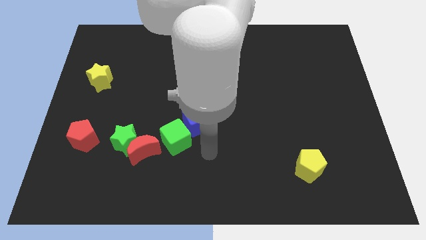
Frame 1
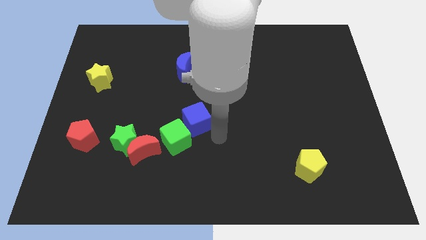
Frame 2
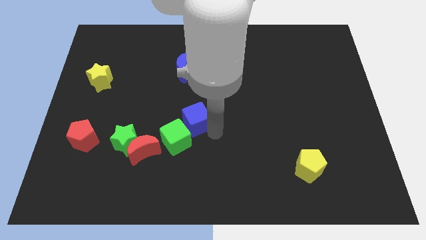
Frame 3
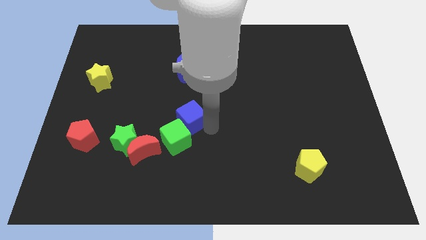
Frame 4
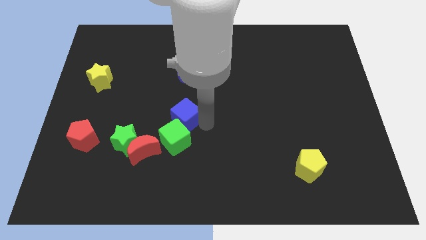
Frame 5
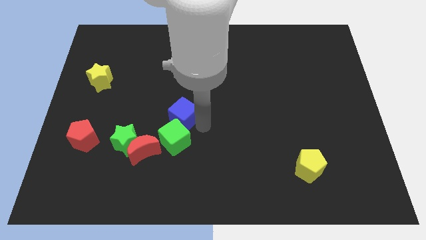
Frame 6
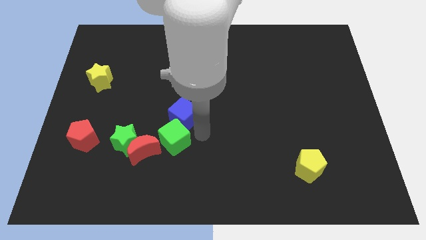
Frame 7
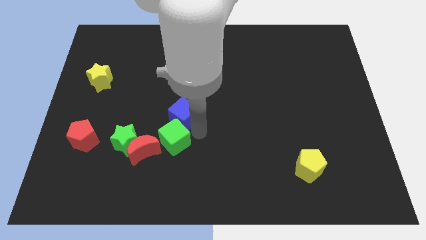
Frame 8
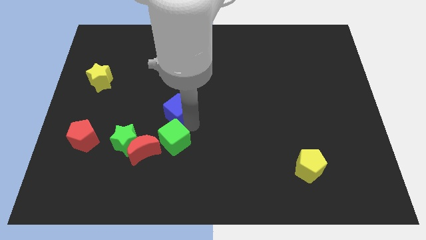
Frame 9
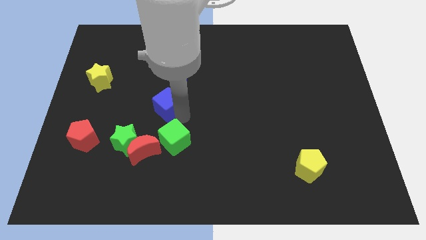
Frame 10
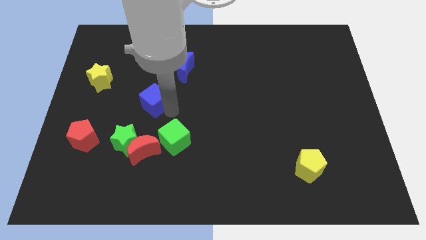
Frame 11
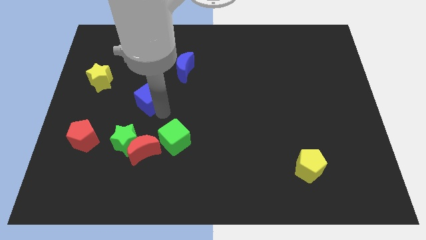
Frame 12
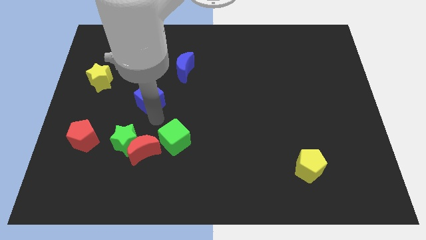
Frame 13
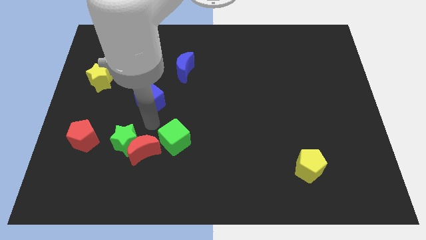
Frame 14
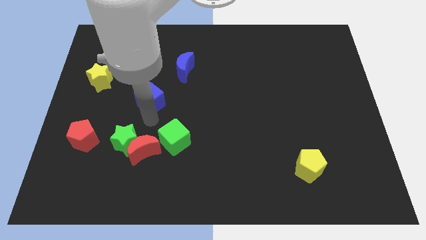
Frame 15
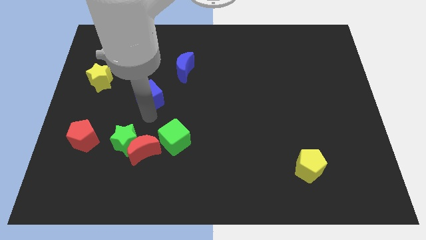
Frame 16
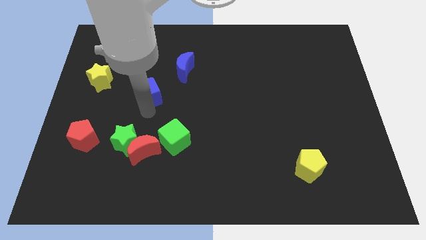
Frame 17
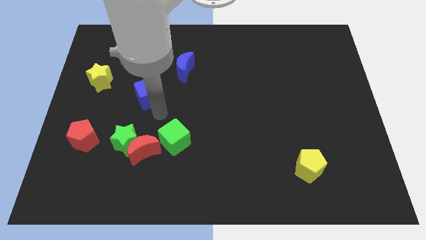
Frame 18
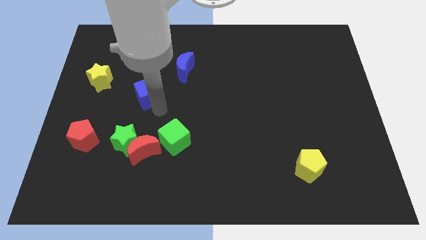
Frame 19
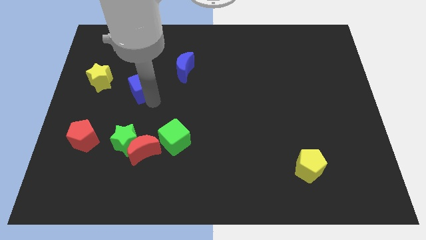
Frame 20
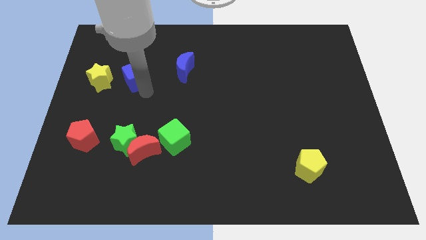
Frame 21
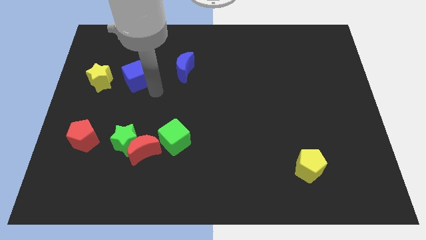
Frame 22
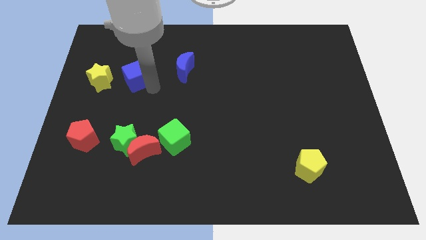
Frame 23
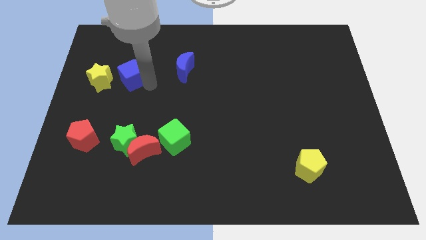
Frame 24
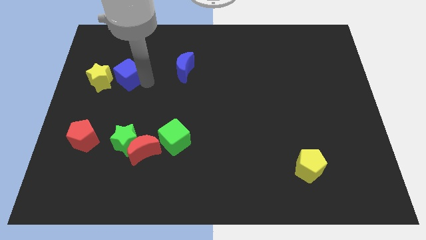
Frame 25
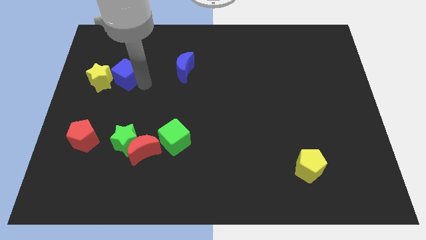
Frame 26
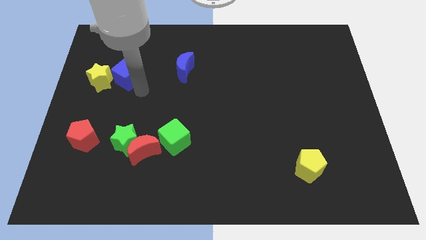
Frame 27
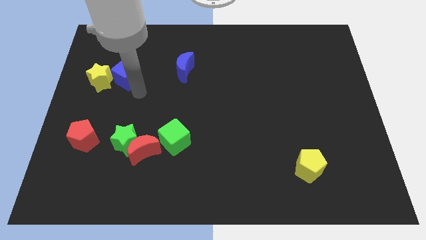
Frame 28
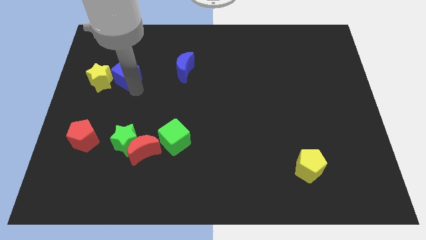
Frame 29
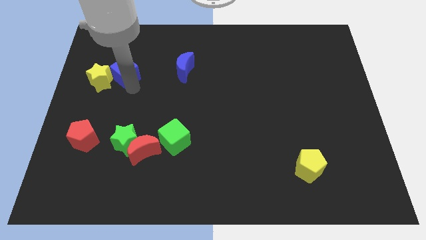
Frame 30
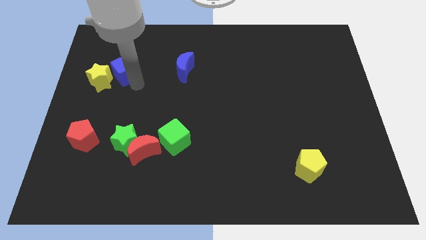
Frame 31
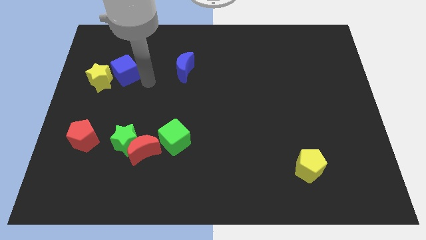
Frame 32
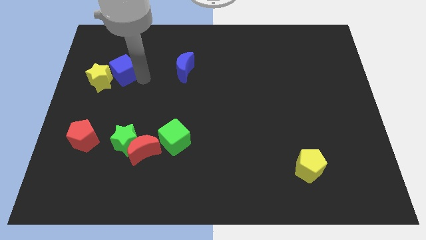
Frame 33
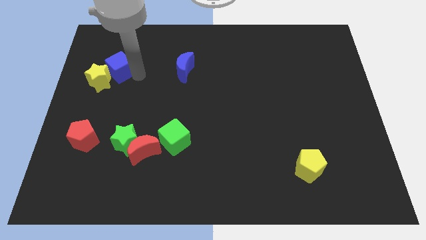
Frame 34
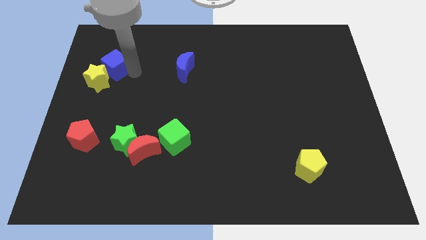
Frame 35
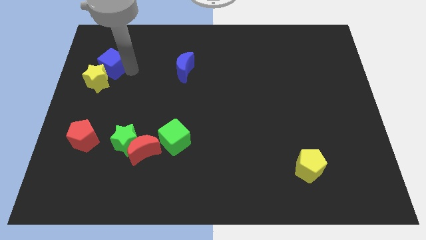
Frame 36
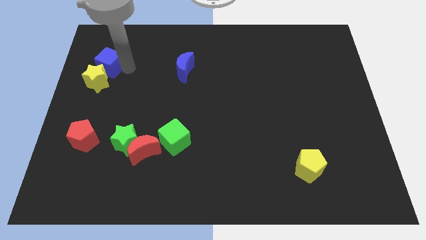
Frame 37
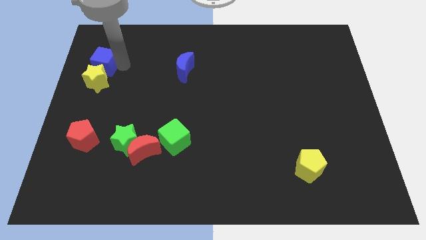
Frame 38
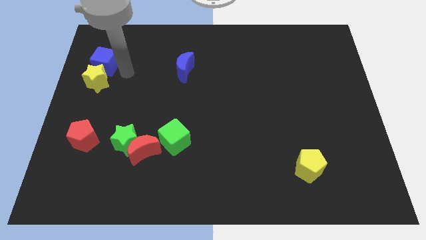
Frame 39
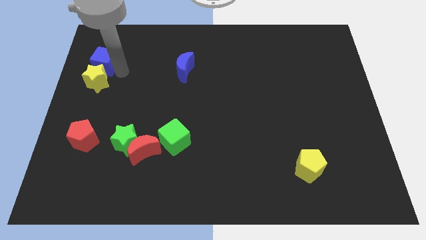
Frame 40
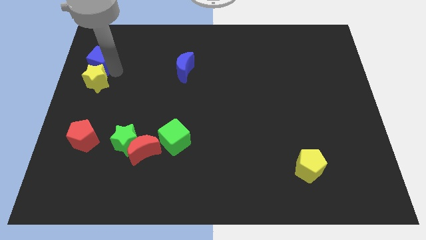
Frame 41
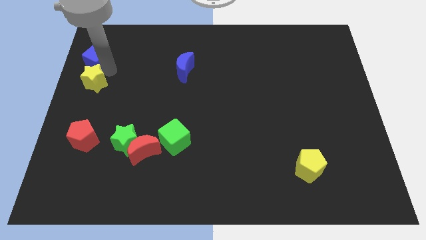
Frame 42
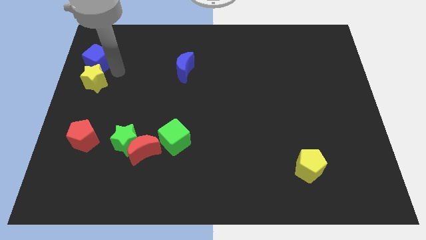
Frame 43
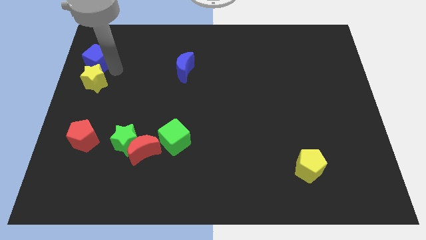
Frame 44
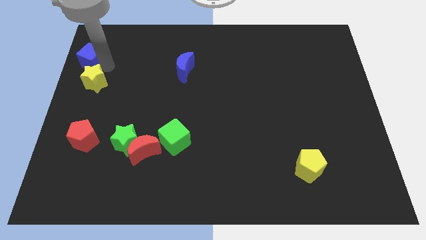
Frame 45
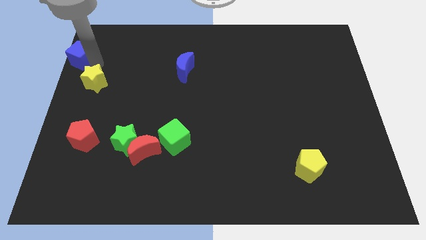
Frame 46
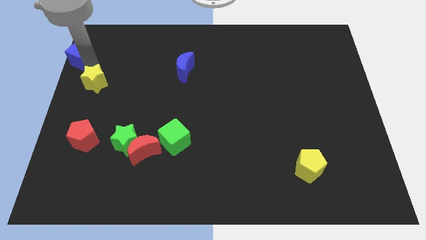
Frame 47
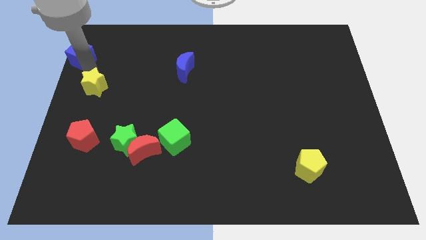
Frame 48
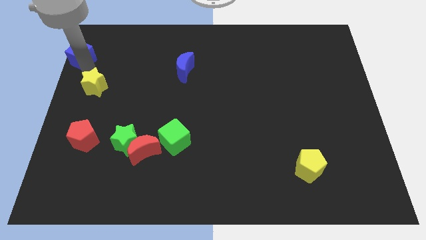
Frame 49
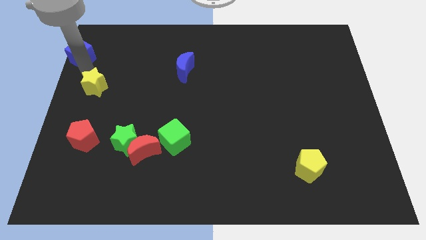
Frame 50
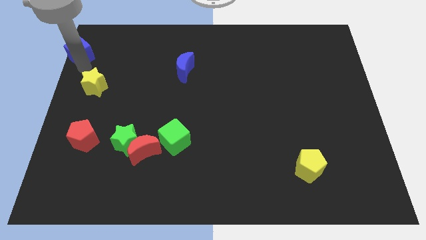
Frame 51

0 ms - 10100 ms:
slide the blue cube to the top left

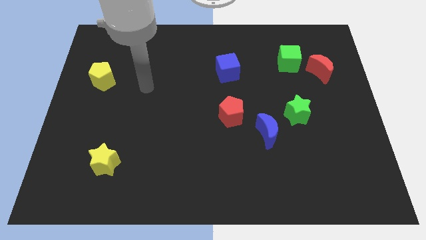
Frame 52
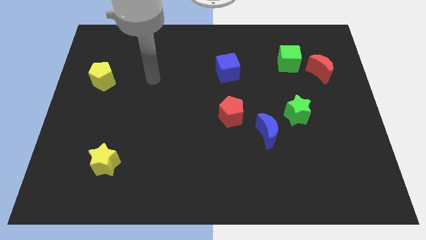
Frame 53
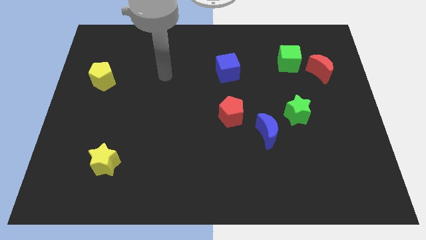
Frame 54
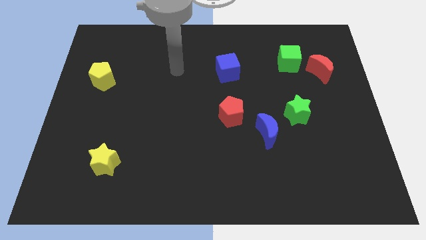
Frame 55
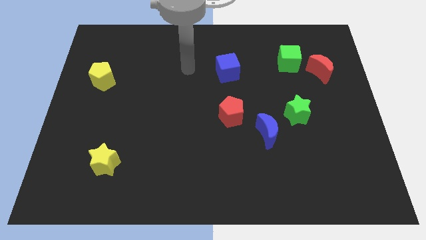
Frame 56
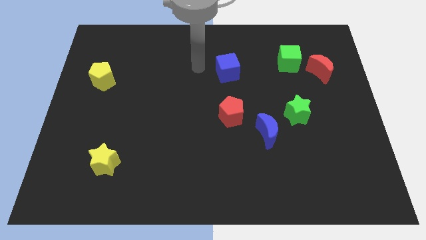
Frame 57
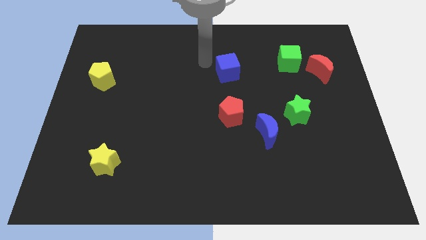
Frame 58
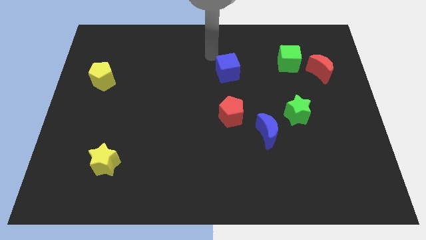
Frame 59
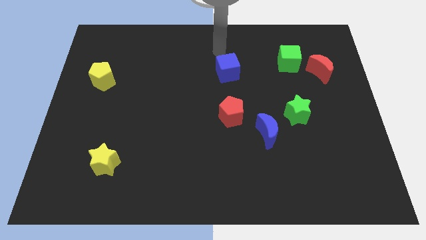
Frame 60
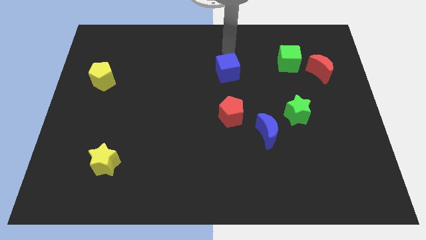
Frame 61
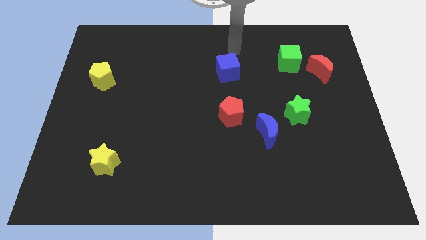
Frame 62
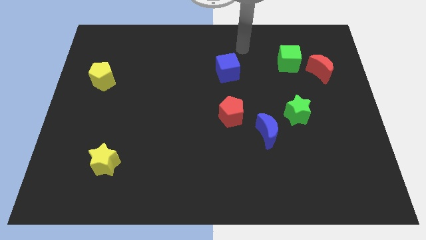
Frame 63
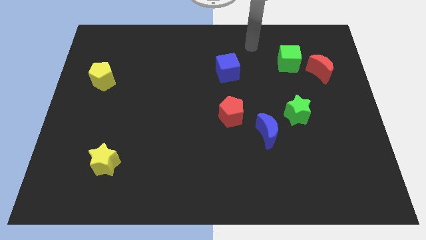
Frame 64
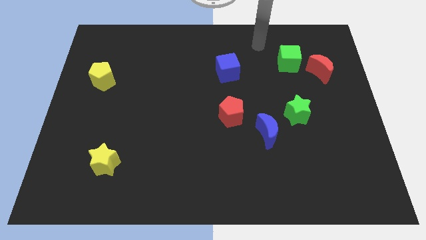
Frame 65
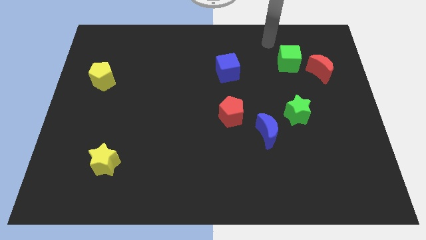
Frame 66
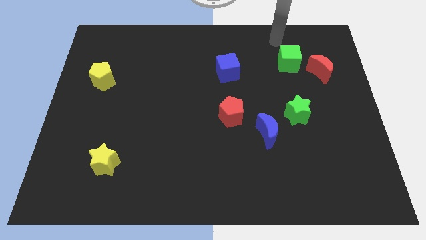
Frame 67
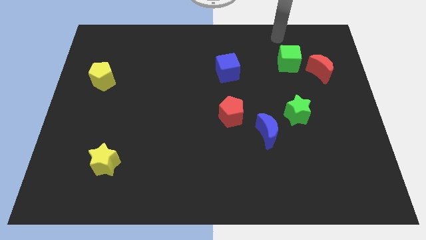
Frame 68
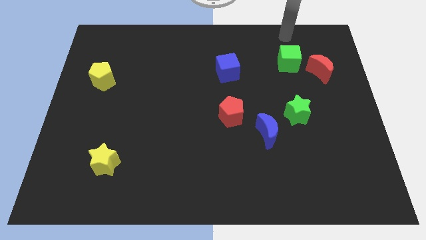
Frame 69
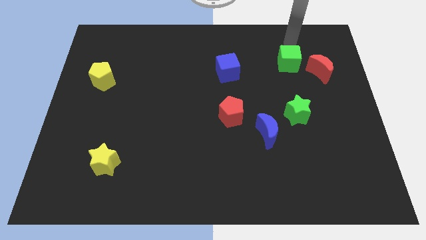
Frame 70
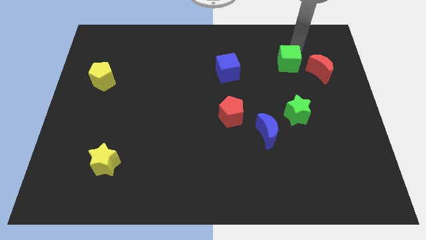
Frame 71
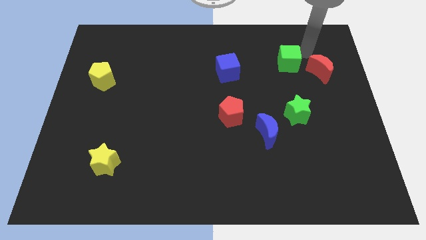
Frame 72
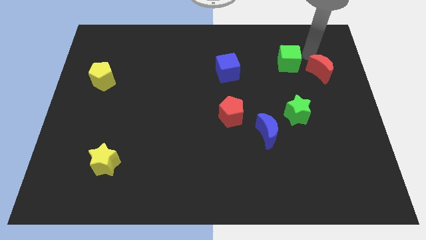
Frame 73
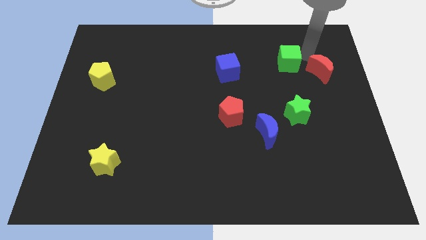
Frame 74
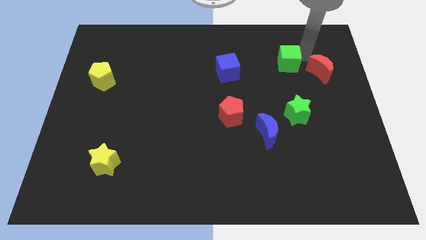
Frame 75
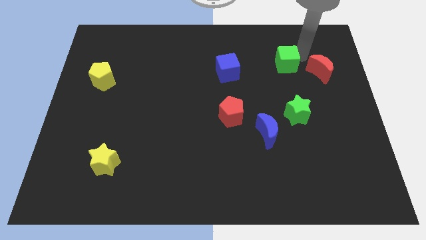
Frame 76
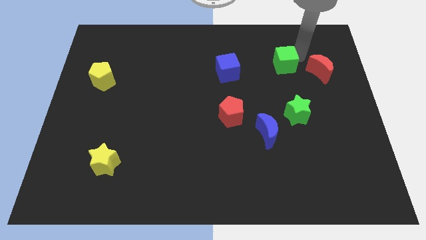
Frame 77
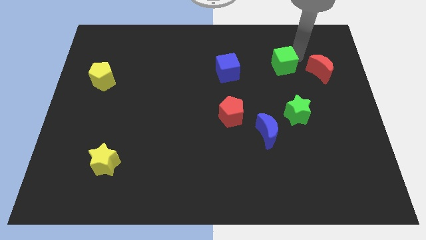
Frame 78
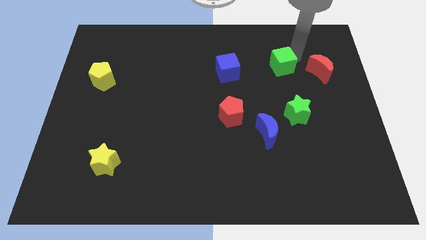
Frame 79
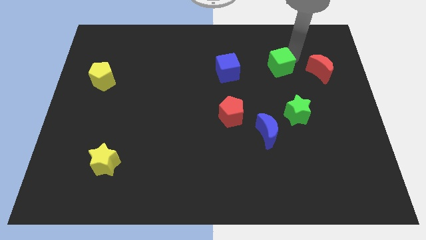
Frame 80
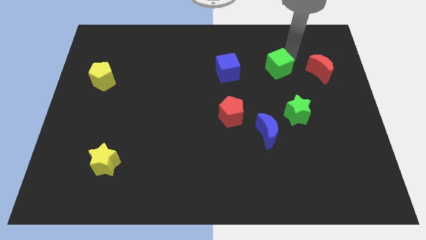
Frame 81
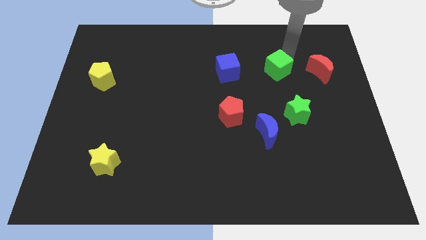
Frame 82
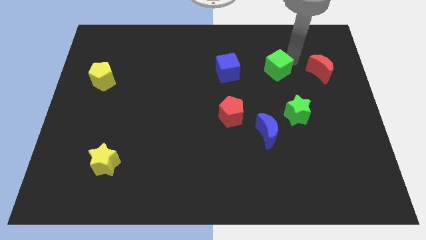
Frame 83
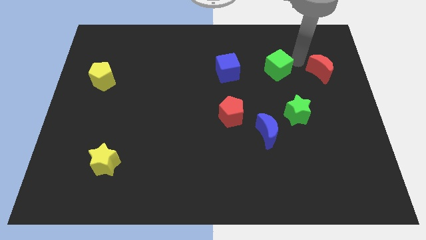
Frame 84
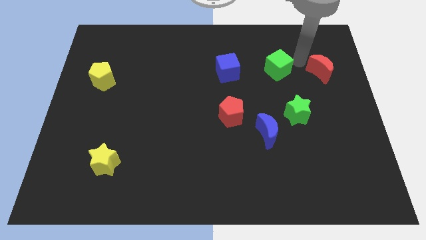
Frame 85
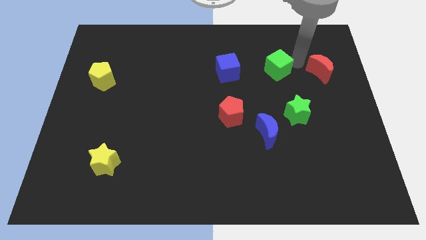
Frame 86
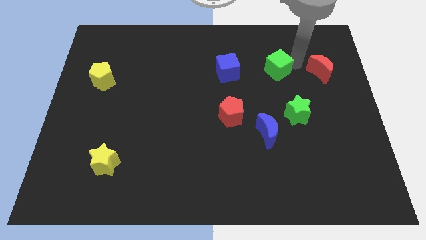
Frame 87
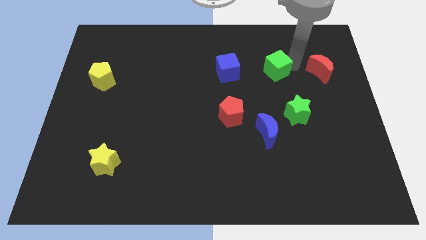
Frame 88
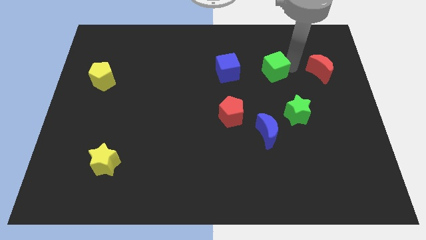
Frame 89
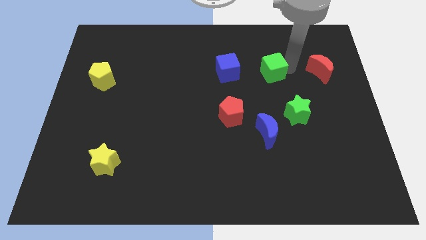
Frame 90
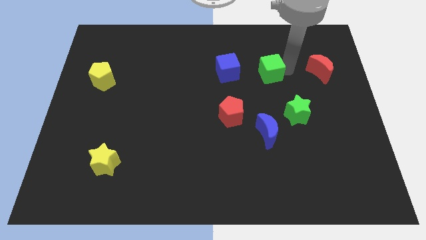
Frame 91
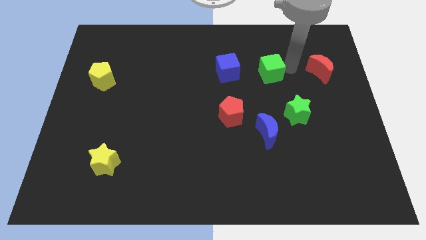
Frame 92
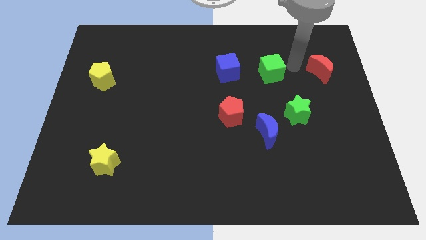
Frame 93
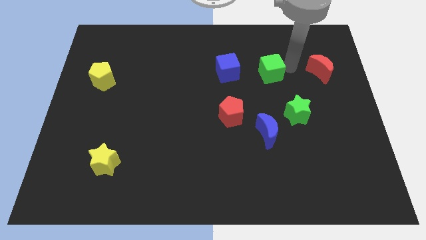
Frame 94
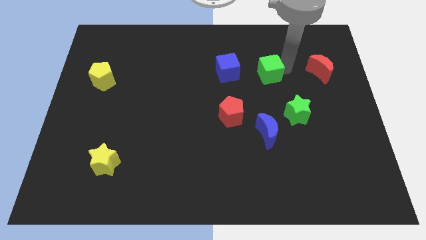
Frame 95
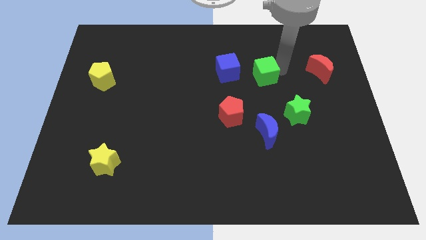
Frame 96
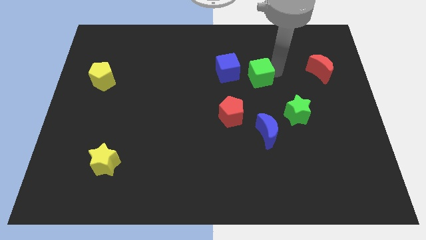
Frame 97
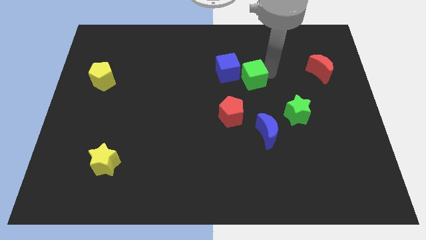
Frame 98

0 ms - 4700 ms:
slide the green cube to the center
